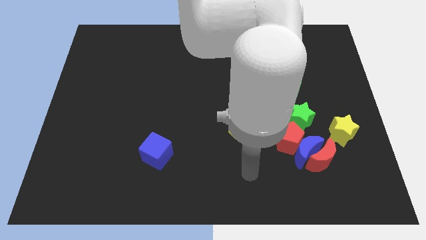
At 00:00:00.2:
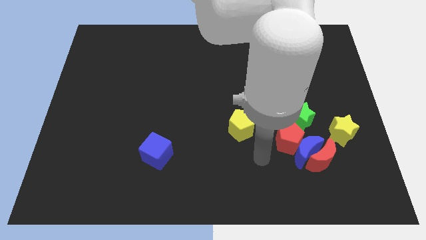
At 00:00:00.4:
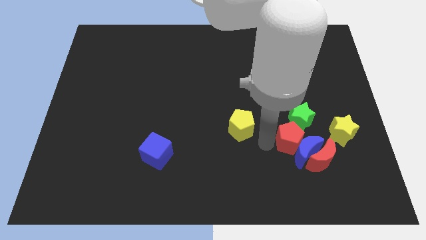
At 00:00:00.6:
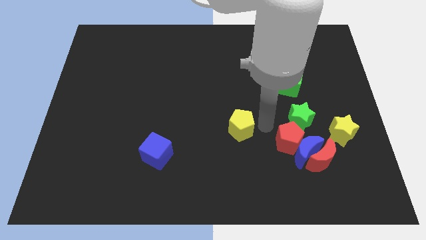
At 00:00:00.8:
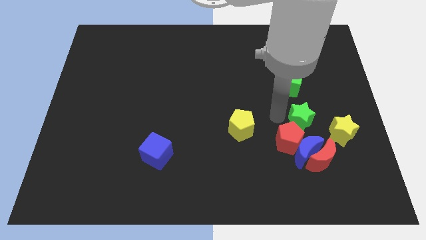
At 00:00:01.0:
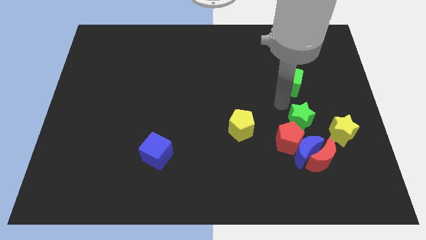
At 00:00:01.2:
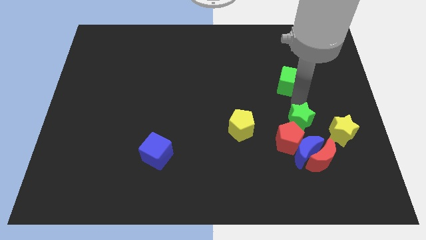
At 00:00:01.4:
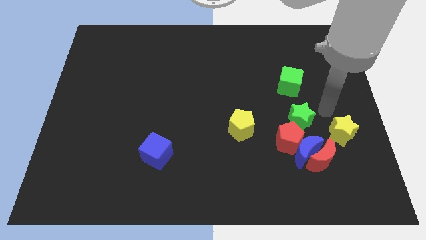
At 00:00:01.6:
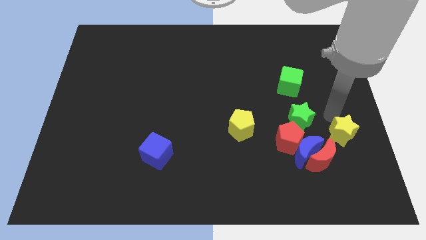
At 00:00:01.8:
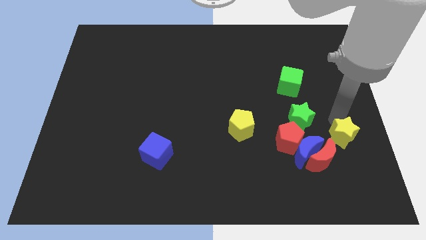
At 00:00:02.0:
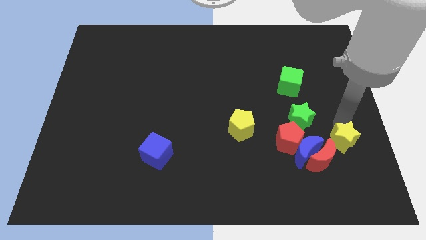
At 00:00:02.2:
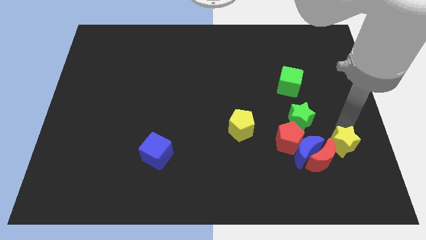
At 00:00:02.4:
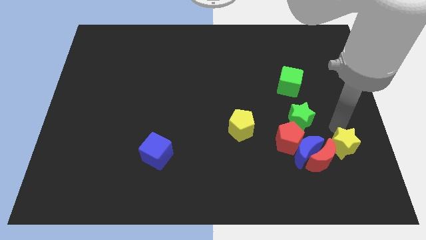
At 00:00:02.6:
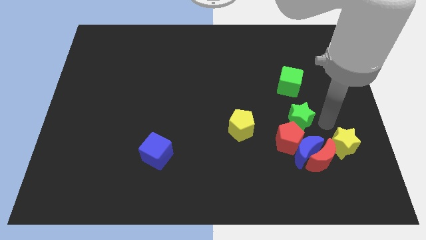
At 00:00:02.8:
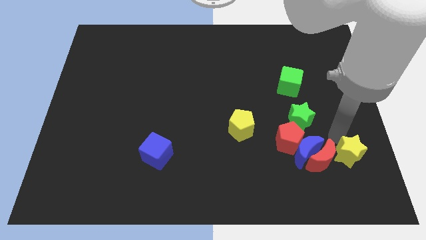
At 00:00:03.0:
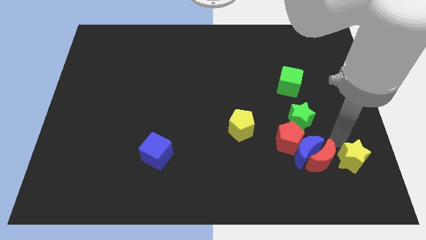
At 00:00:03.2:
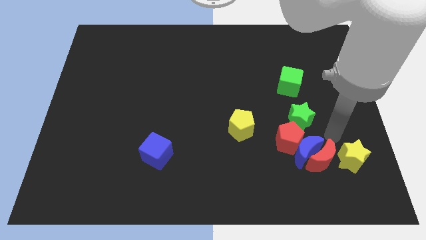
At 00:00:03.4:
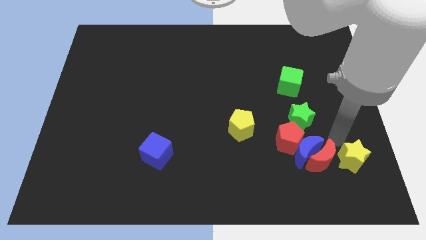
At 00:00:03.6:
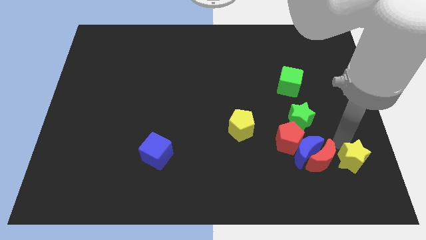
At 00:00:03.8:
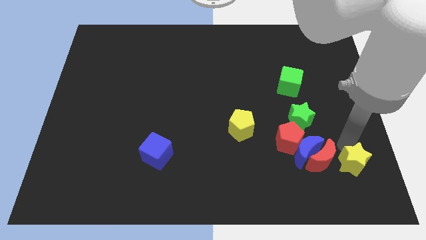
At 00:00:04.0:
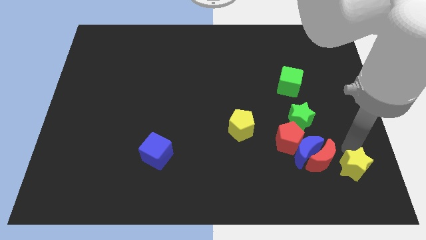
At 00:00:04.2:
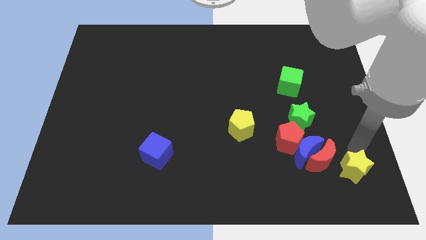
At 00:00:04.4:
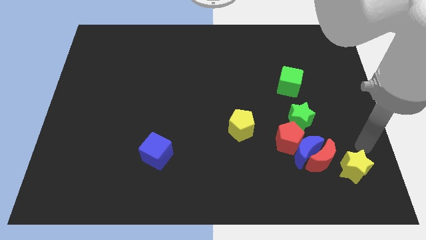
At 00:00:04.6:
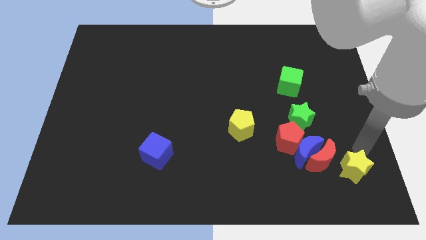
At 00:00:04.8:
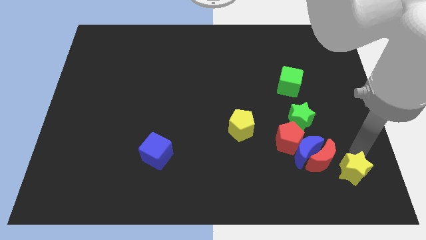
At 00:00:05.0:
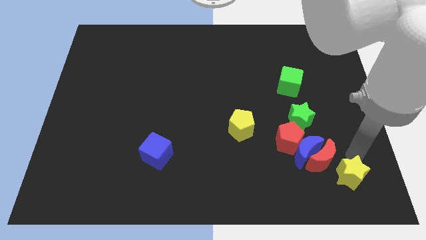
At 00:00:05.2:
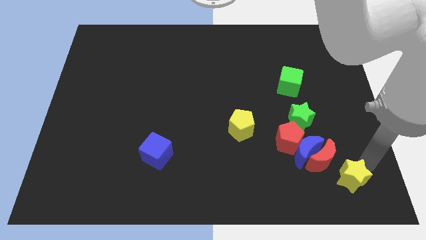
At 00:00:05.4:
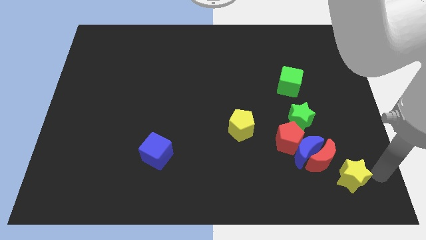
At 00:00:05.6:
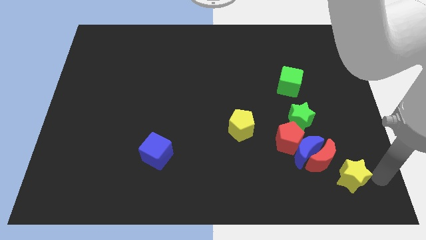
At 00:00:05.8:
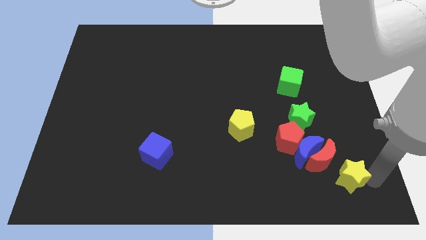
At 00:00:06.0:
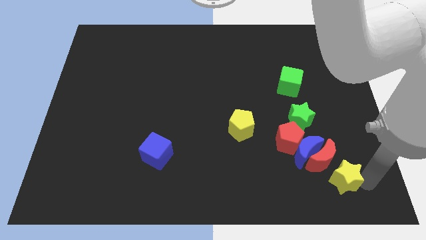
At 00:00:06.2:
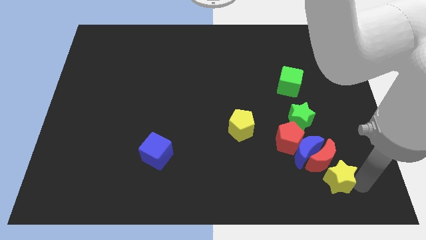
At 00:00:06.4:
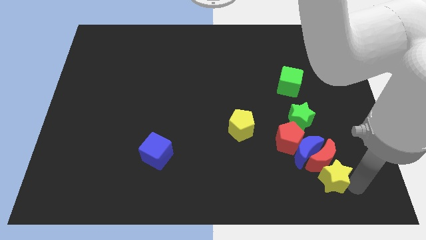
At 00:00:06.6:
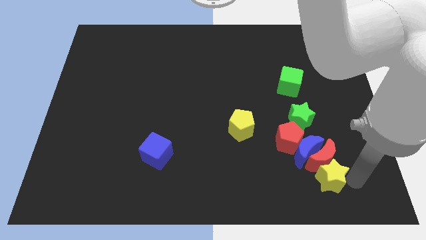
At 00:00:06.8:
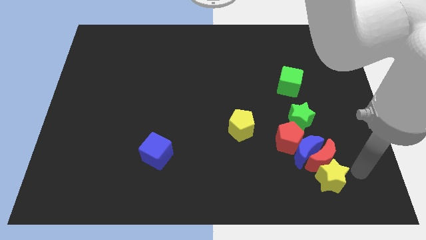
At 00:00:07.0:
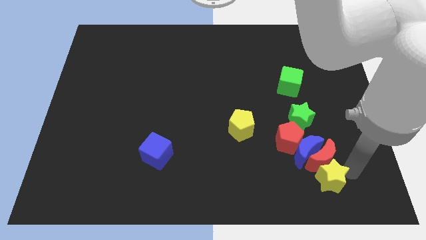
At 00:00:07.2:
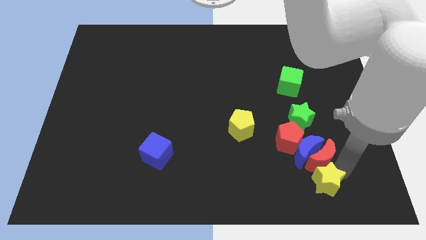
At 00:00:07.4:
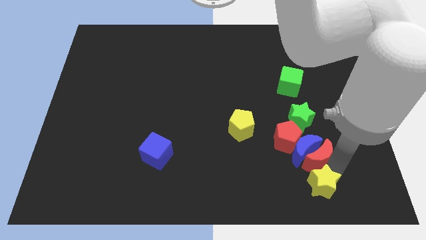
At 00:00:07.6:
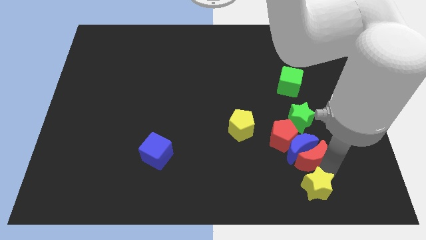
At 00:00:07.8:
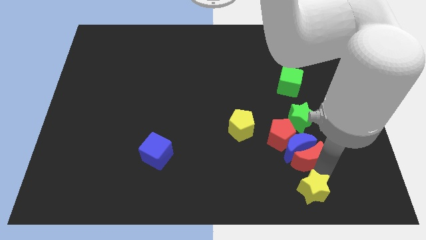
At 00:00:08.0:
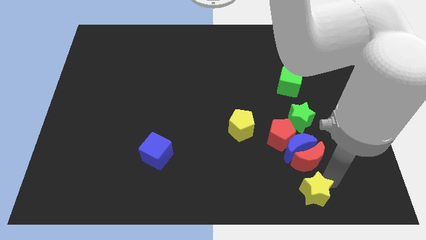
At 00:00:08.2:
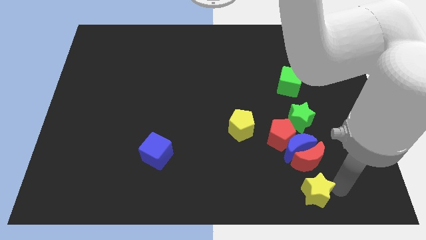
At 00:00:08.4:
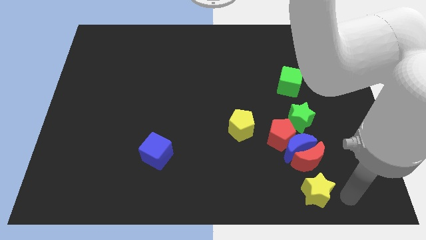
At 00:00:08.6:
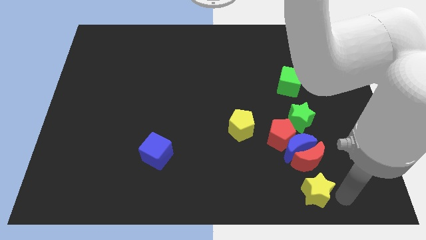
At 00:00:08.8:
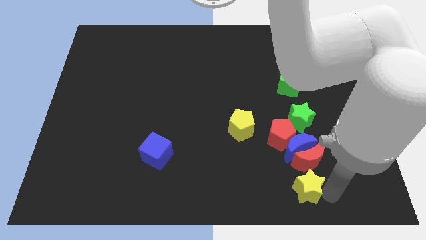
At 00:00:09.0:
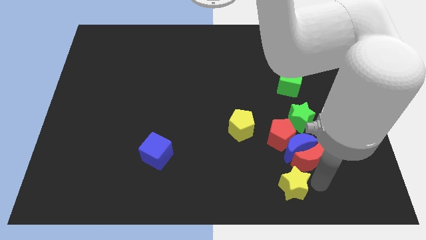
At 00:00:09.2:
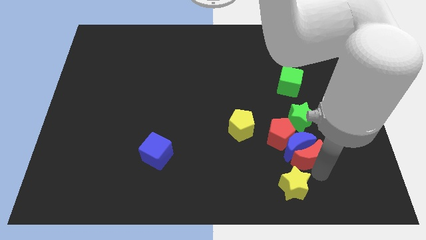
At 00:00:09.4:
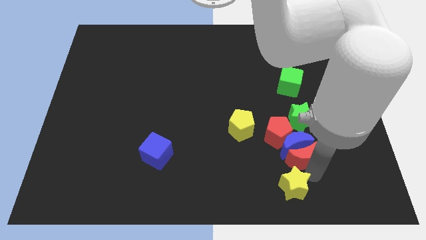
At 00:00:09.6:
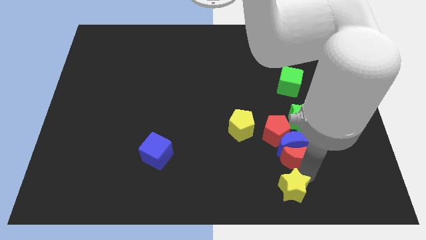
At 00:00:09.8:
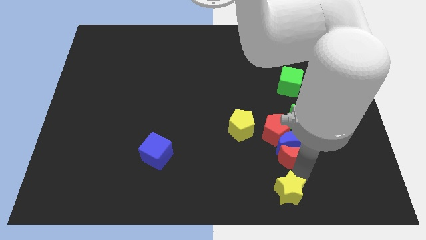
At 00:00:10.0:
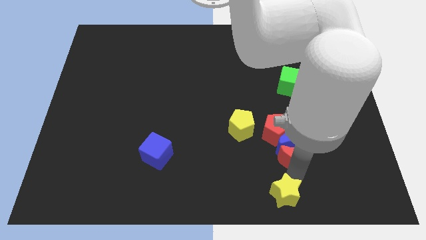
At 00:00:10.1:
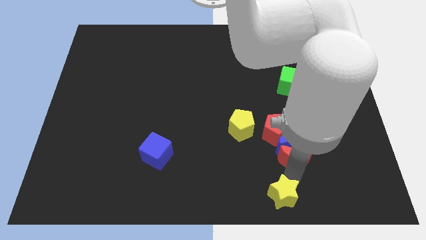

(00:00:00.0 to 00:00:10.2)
push the yellow star to the bottom
